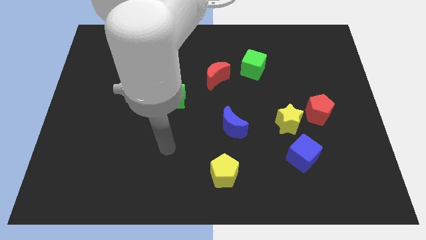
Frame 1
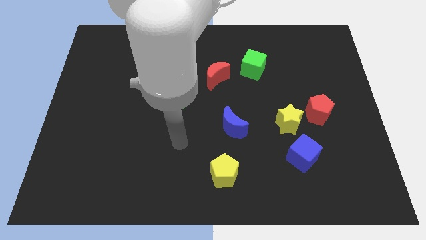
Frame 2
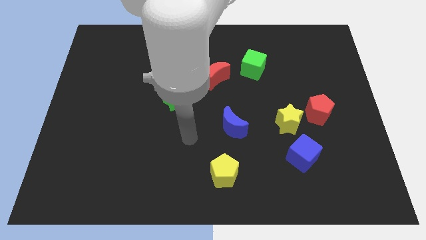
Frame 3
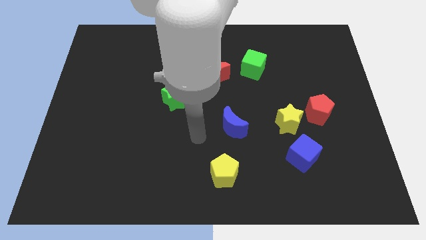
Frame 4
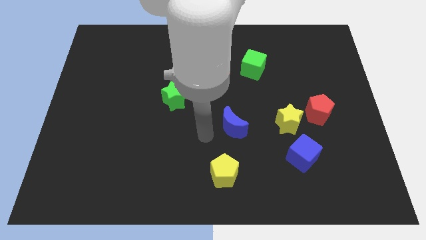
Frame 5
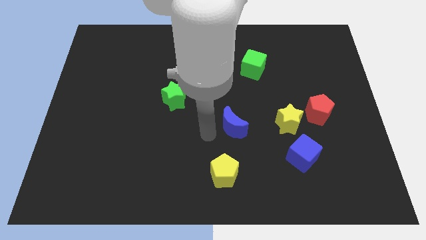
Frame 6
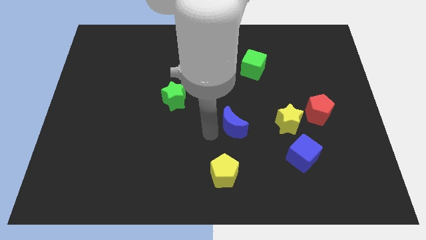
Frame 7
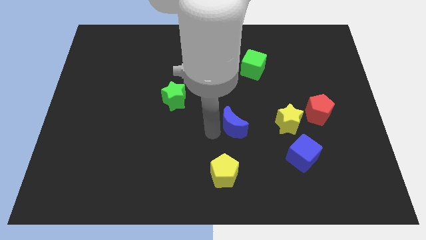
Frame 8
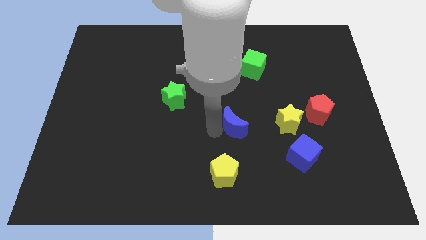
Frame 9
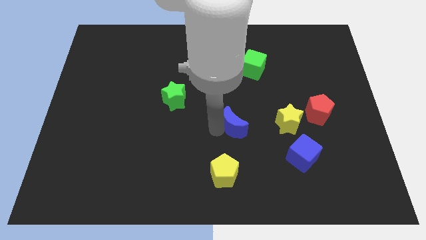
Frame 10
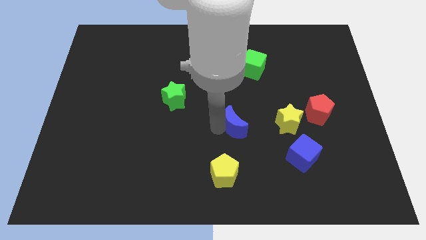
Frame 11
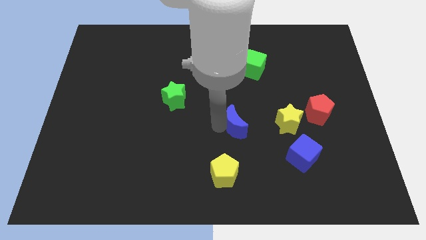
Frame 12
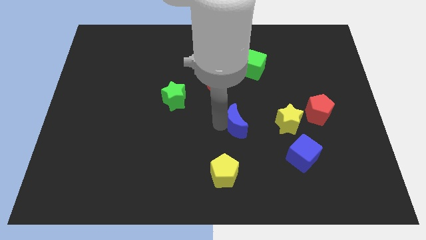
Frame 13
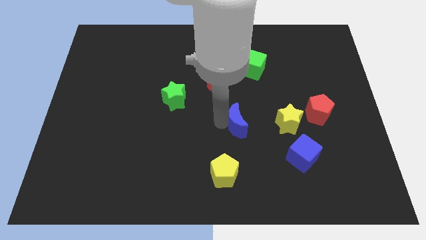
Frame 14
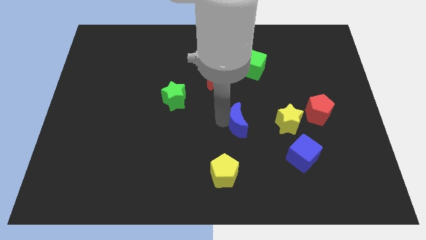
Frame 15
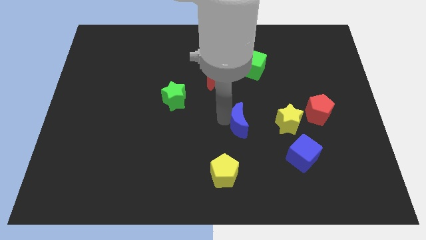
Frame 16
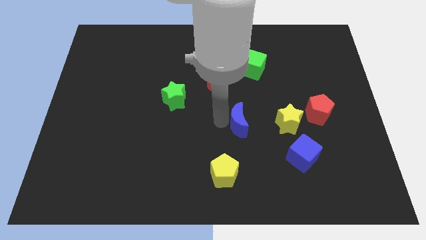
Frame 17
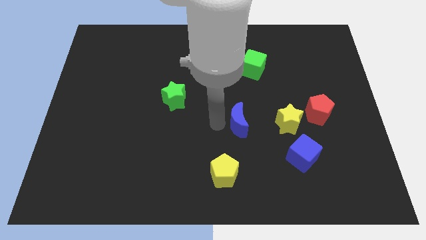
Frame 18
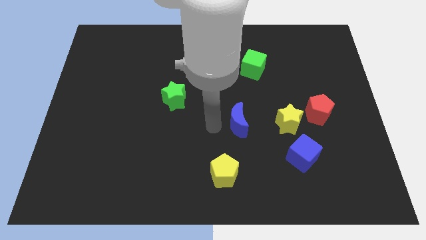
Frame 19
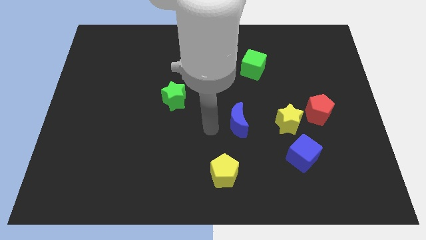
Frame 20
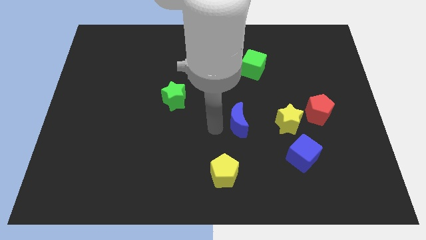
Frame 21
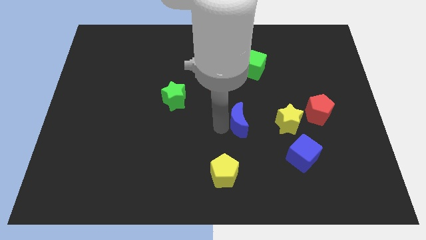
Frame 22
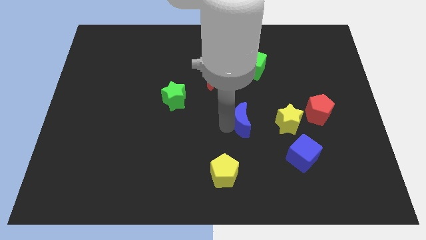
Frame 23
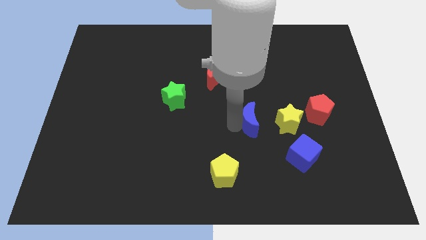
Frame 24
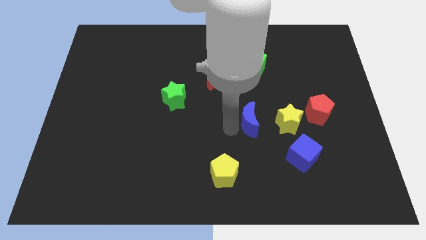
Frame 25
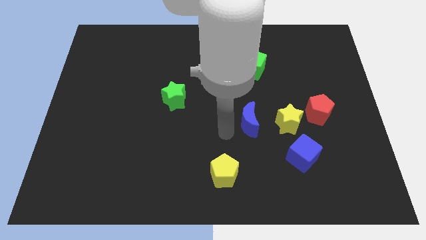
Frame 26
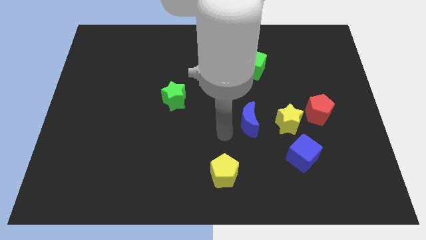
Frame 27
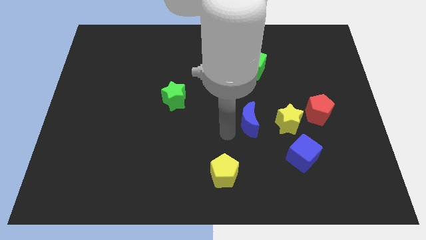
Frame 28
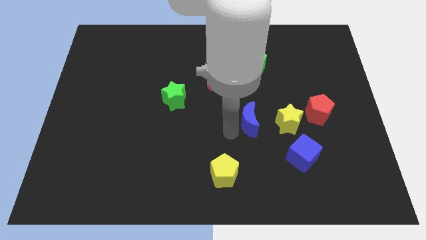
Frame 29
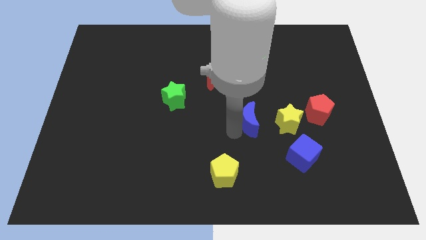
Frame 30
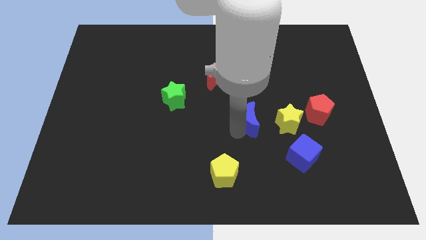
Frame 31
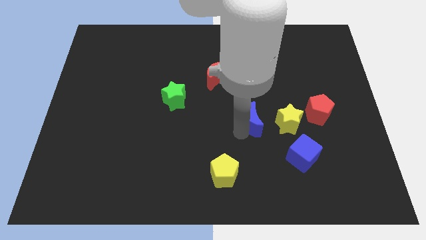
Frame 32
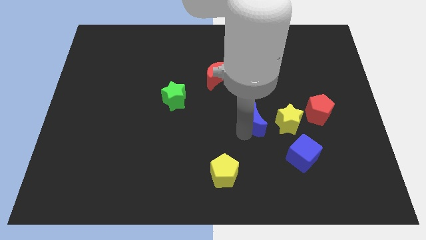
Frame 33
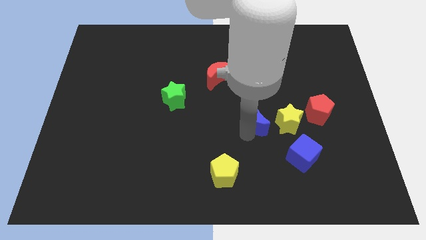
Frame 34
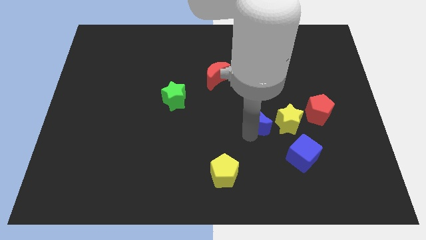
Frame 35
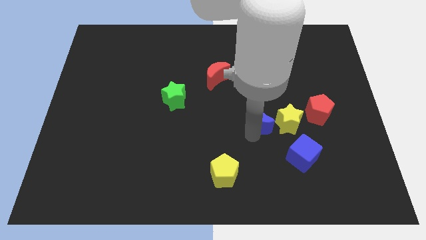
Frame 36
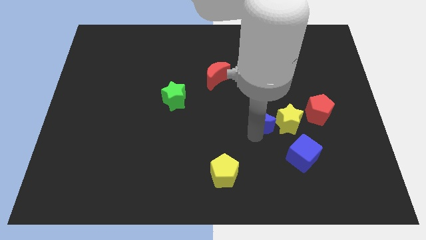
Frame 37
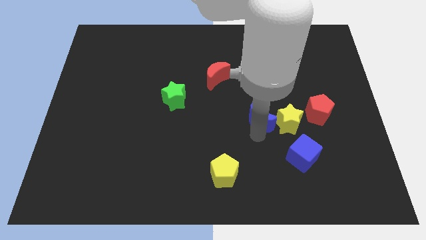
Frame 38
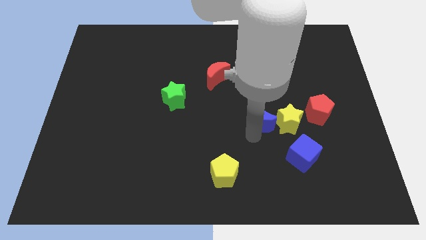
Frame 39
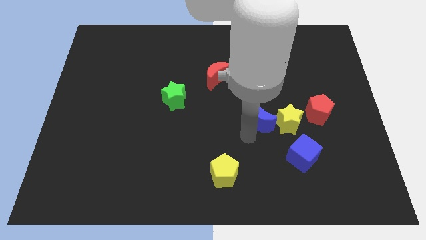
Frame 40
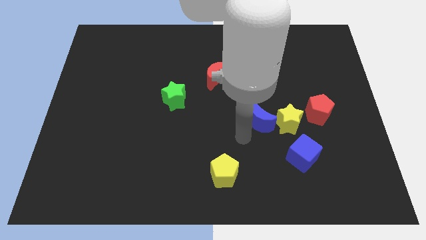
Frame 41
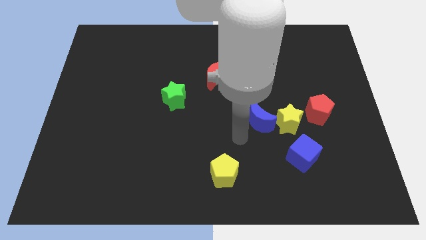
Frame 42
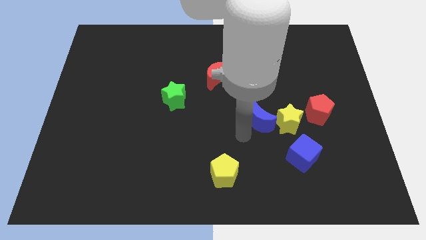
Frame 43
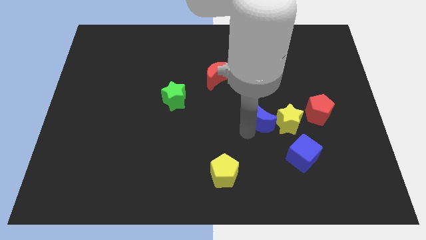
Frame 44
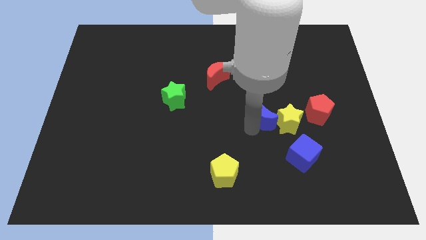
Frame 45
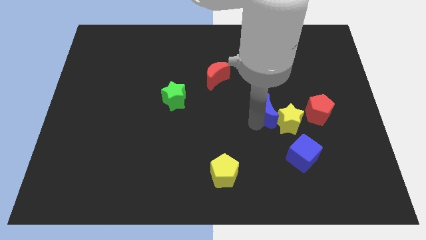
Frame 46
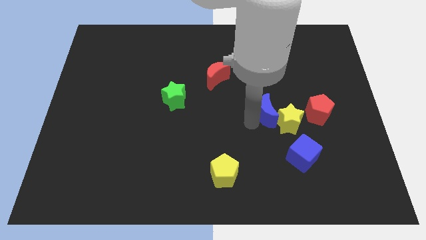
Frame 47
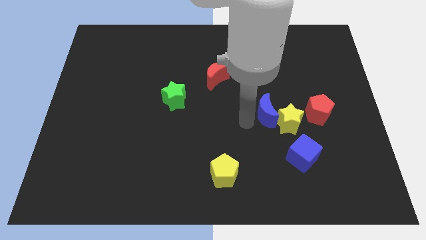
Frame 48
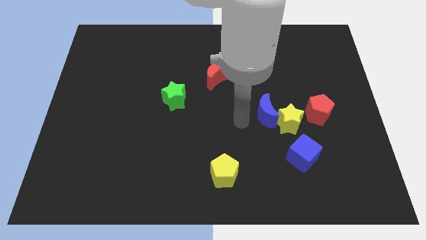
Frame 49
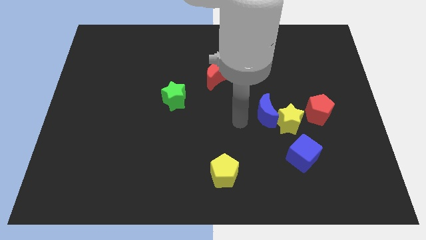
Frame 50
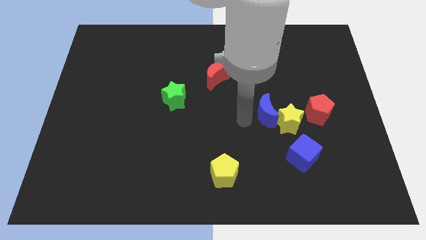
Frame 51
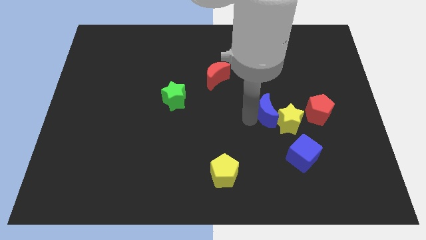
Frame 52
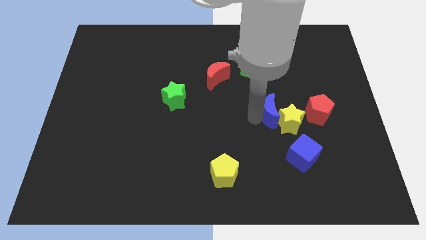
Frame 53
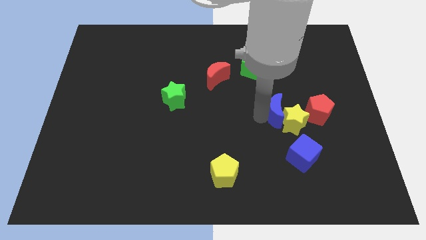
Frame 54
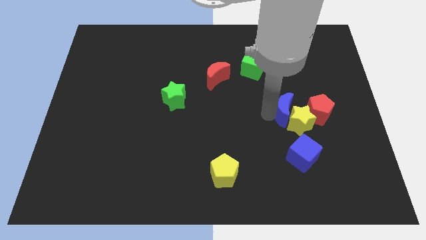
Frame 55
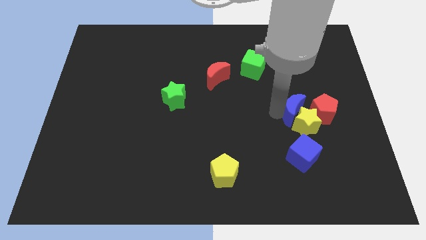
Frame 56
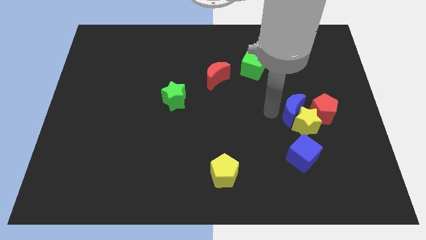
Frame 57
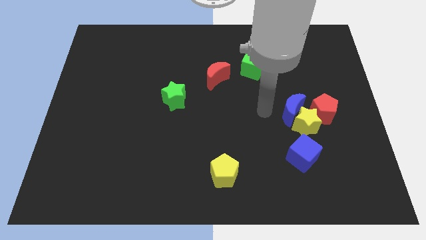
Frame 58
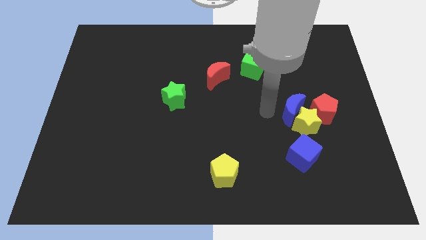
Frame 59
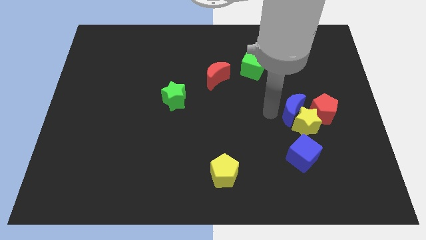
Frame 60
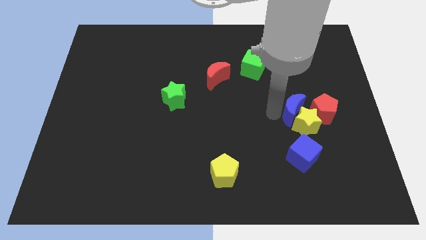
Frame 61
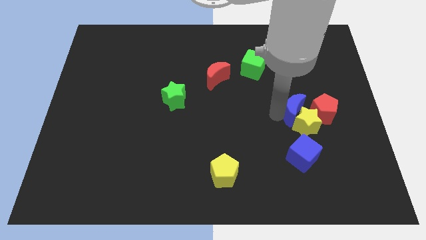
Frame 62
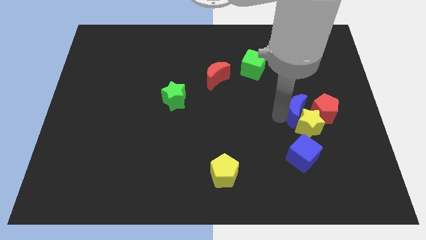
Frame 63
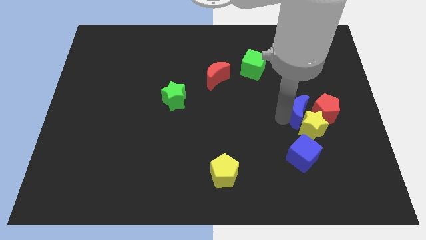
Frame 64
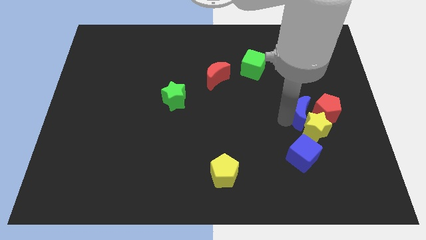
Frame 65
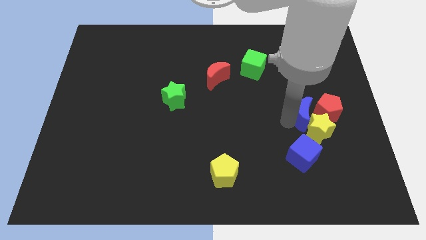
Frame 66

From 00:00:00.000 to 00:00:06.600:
push the blue moon towards the red pentagon

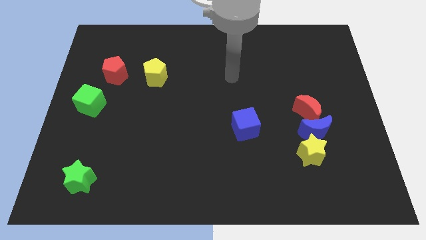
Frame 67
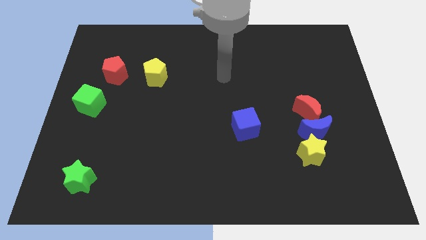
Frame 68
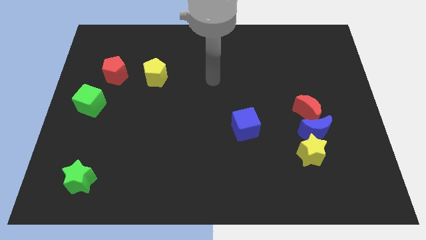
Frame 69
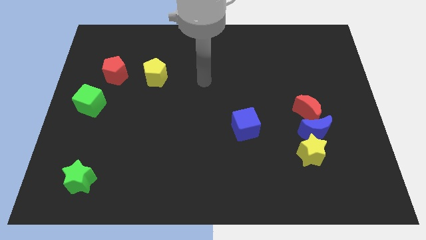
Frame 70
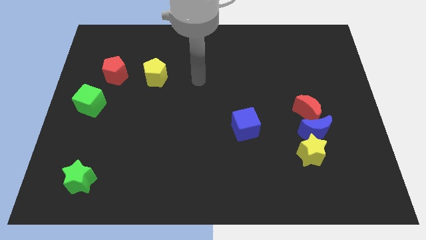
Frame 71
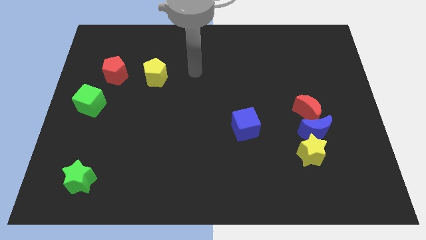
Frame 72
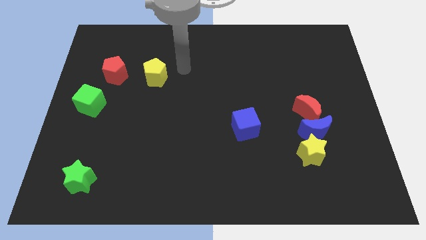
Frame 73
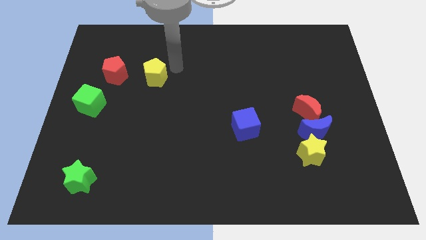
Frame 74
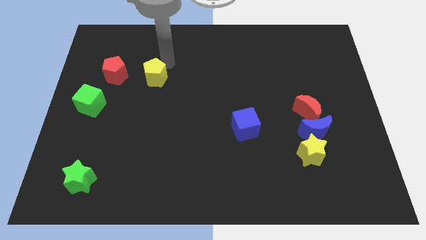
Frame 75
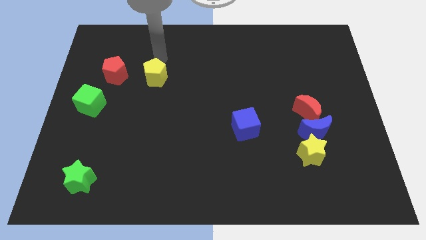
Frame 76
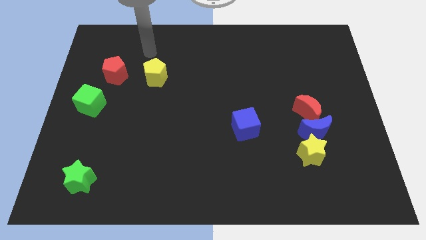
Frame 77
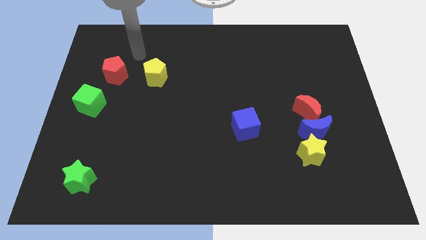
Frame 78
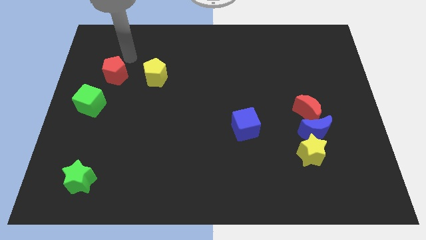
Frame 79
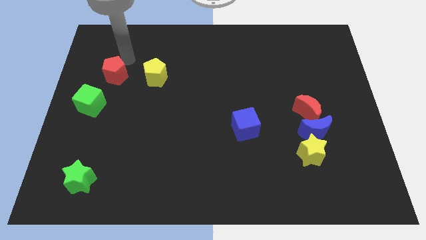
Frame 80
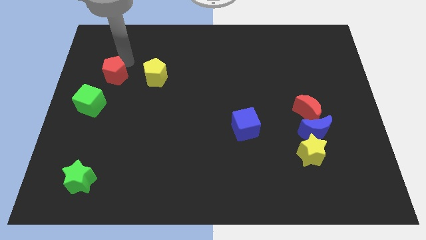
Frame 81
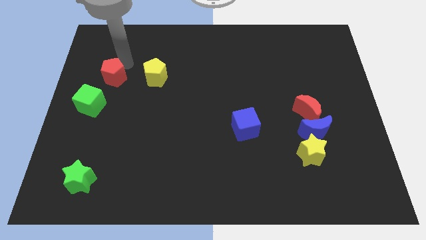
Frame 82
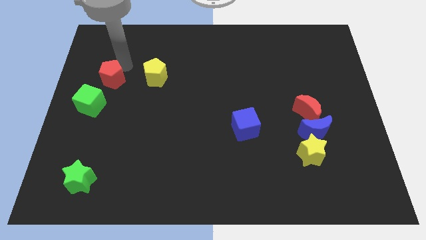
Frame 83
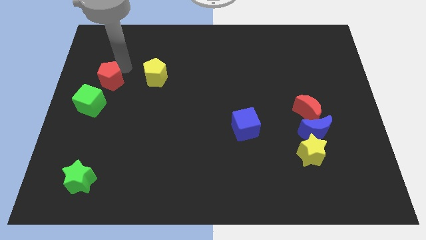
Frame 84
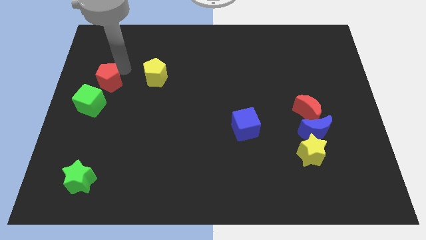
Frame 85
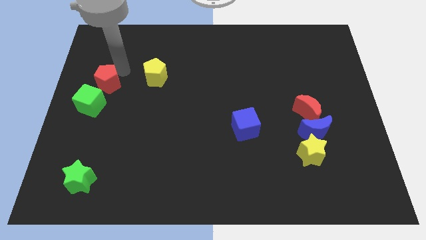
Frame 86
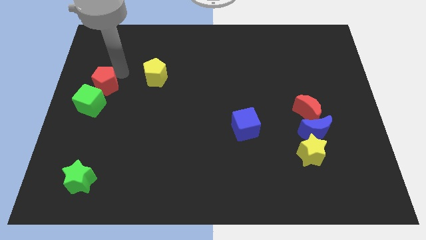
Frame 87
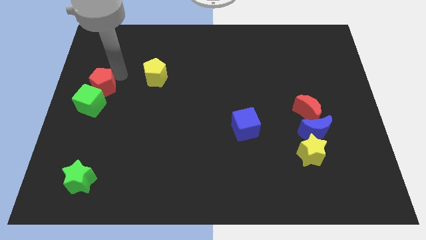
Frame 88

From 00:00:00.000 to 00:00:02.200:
push the red pentagon close to the green cube
